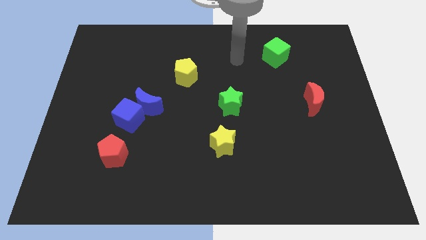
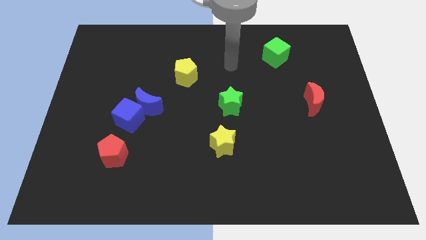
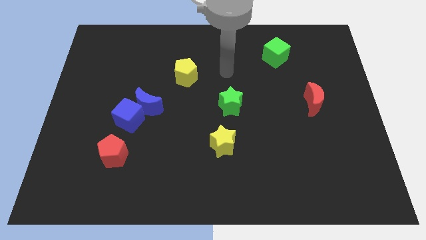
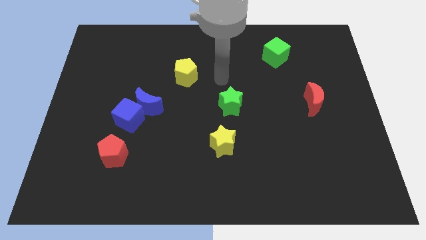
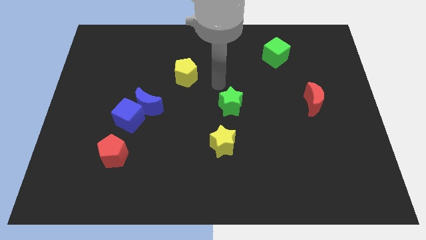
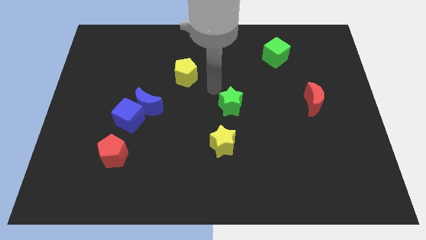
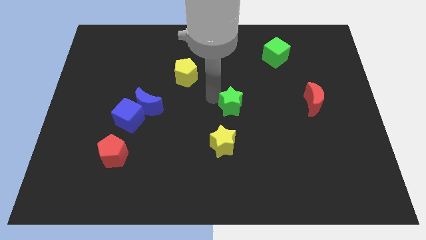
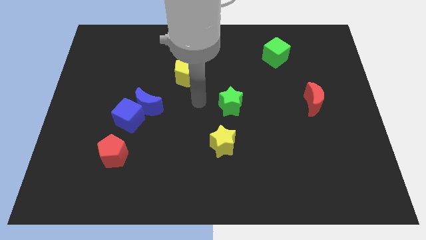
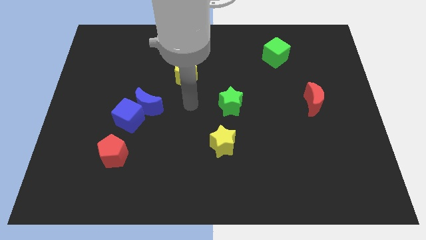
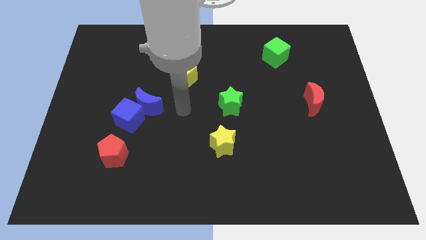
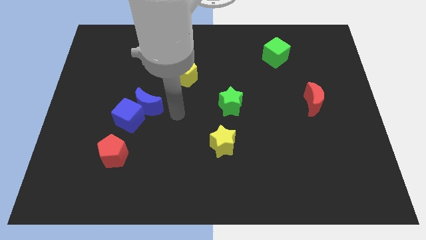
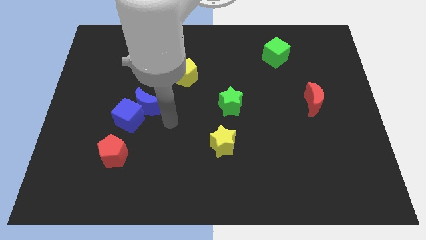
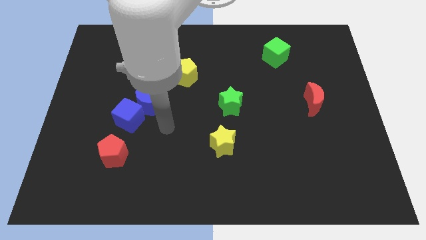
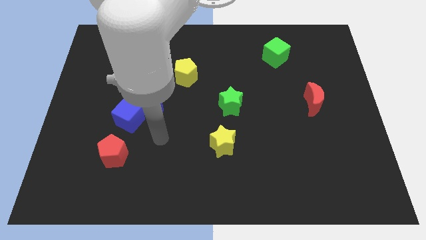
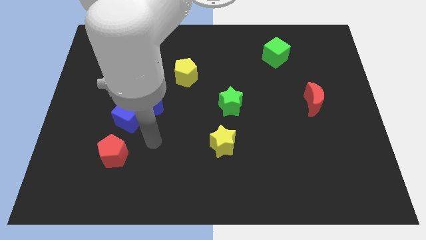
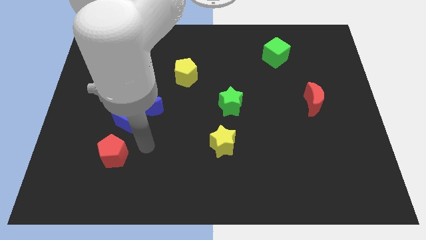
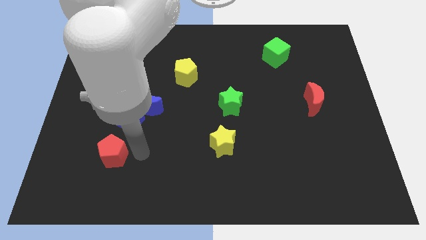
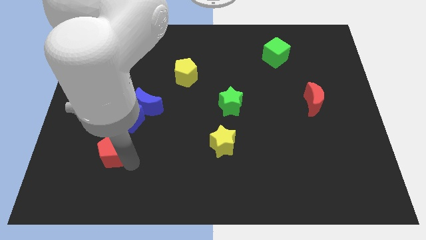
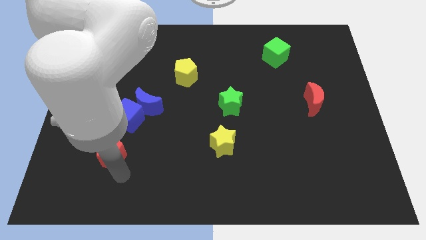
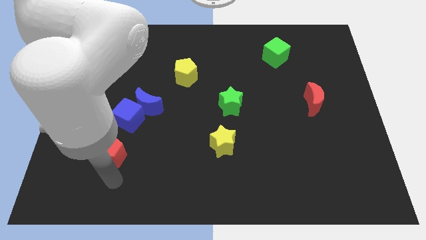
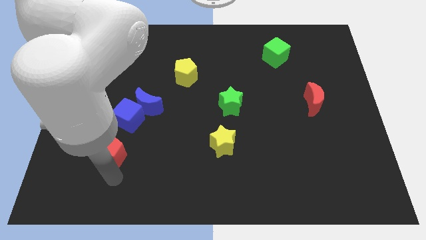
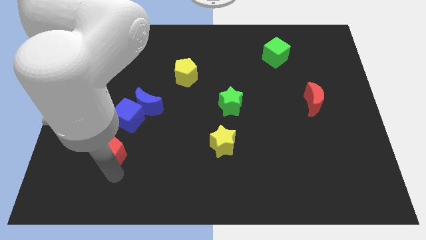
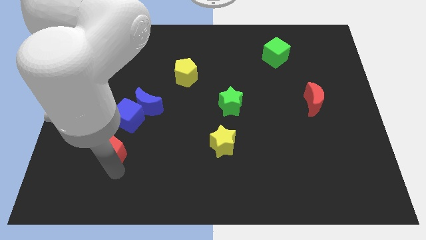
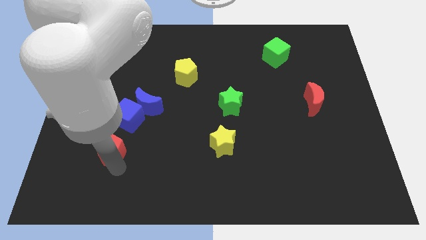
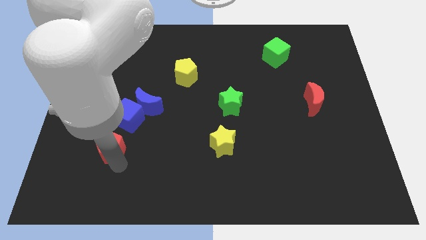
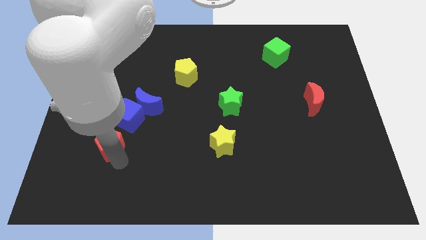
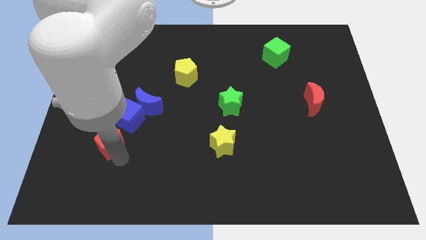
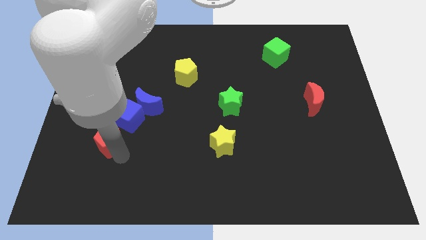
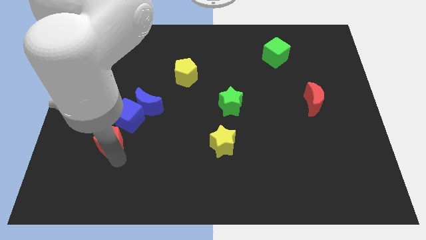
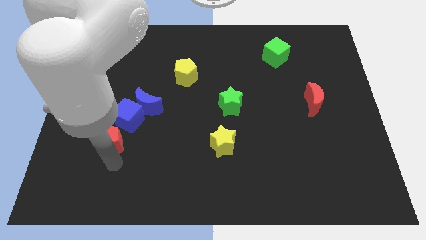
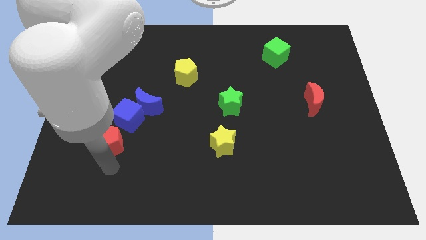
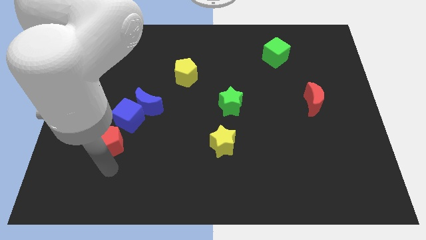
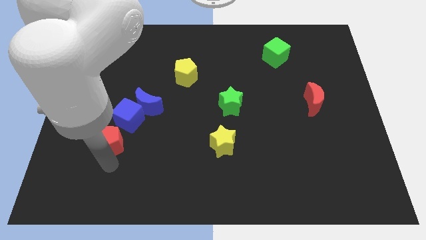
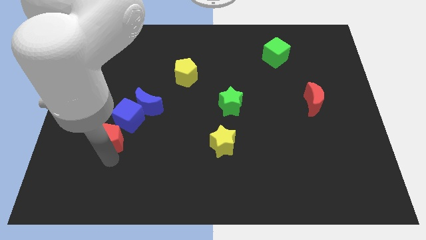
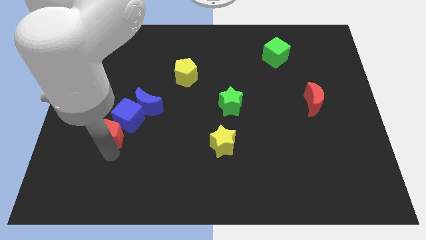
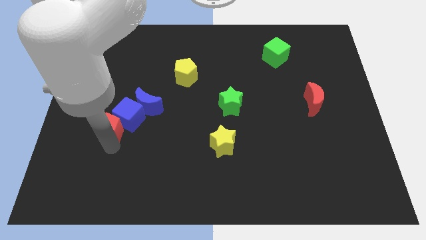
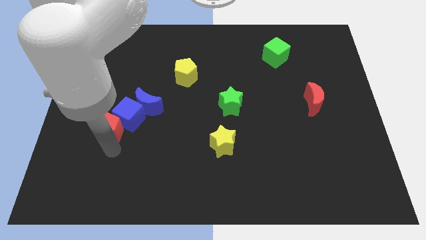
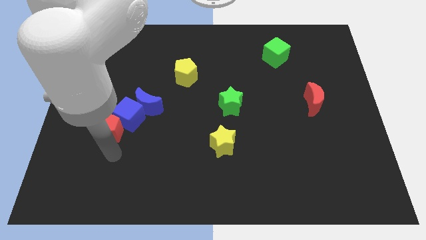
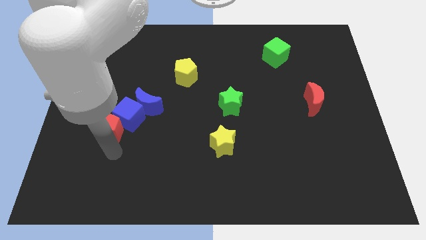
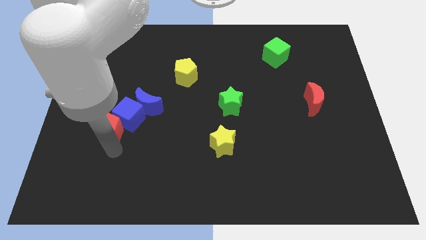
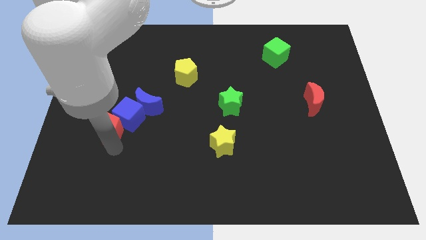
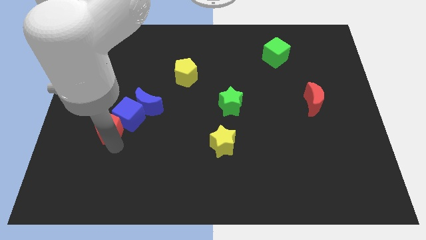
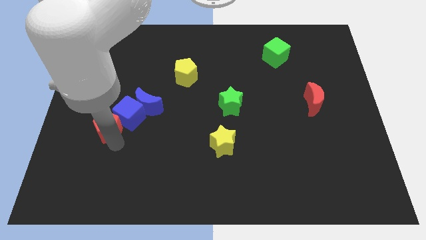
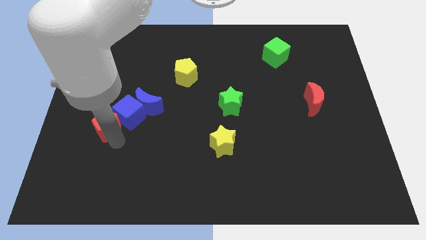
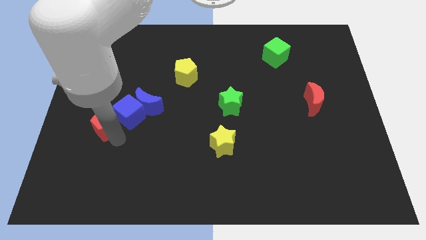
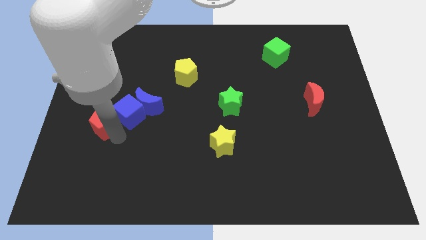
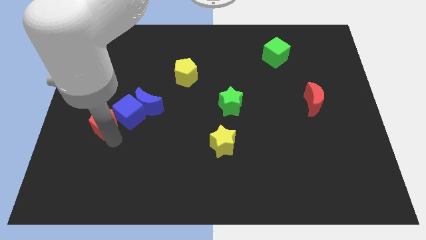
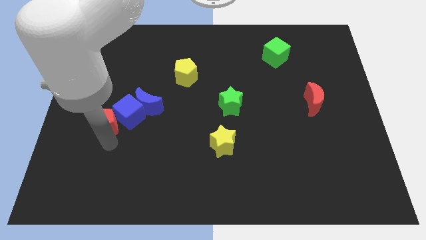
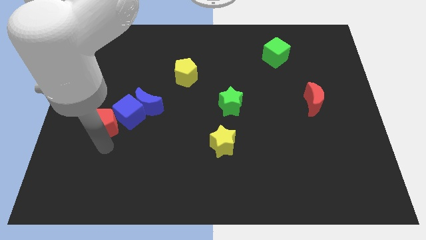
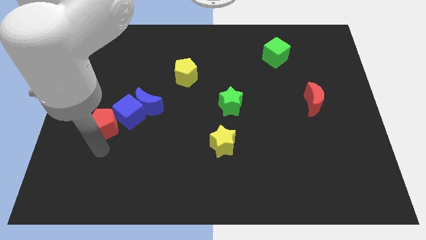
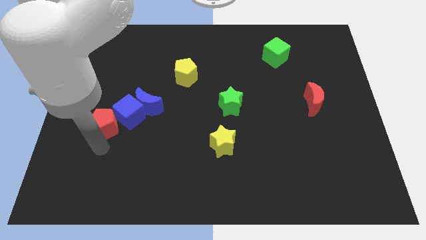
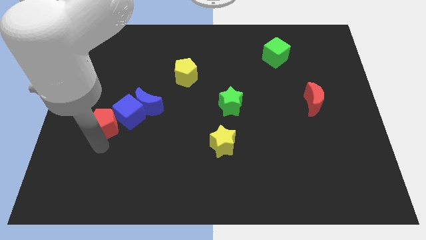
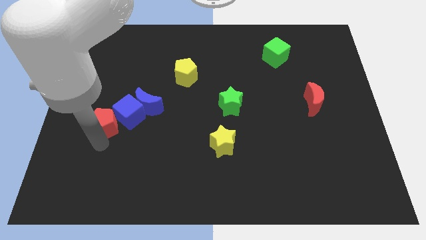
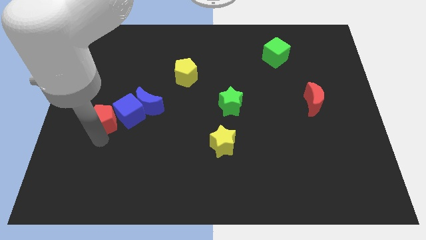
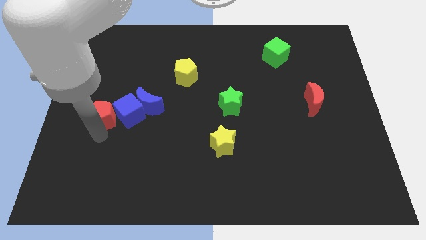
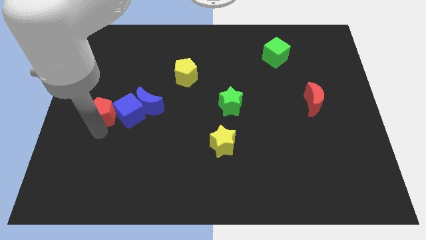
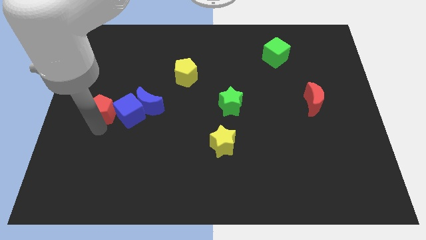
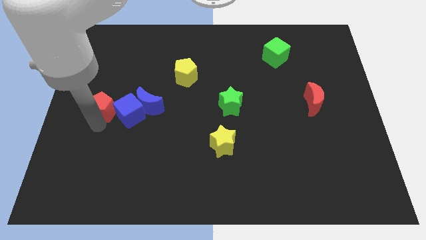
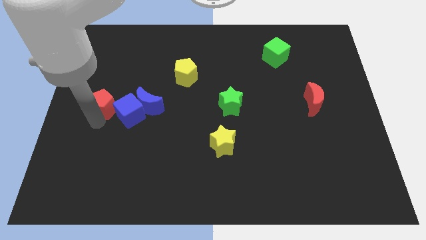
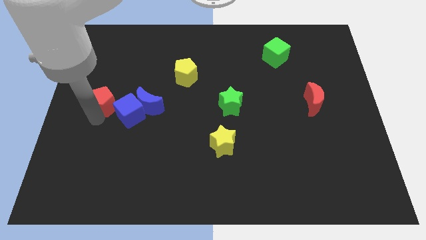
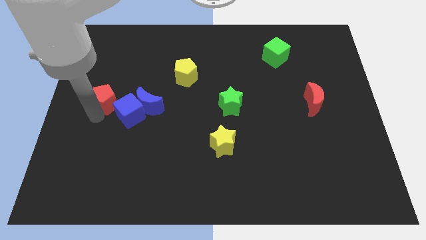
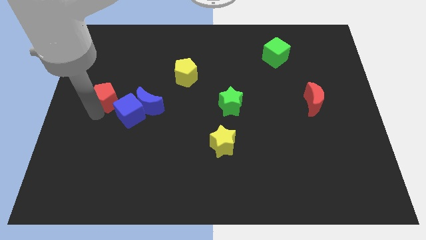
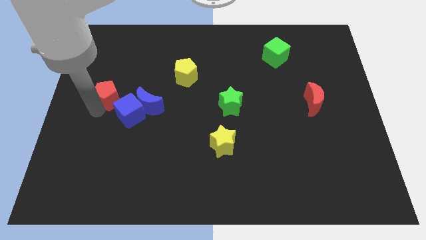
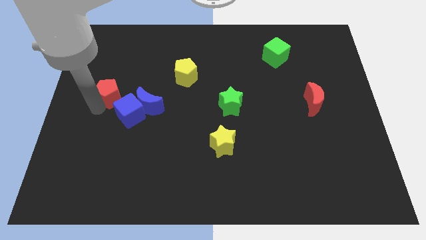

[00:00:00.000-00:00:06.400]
put the red pentagon to the top left side of the blue moon

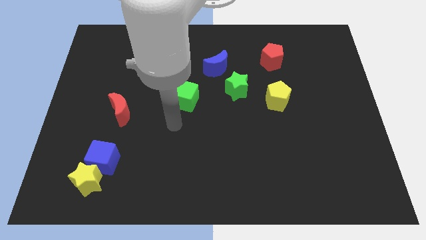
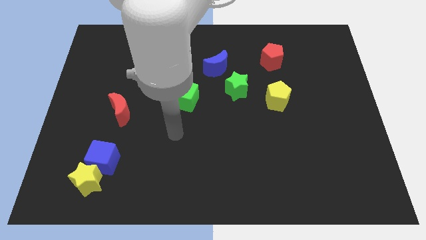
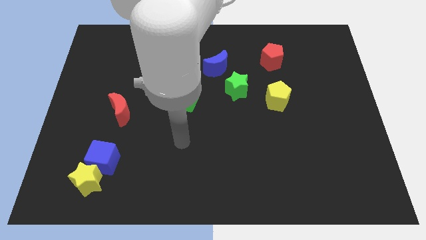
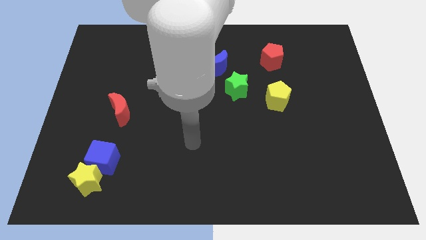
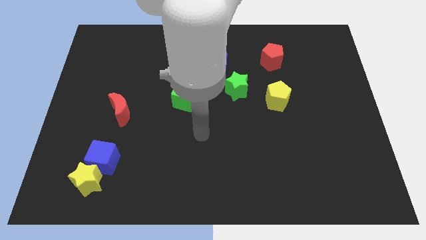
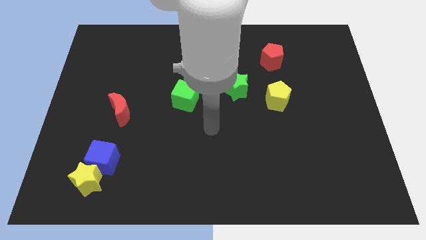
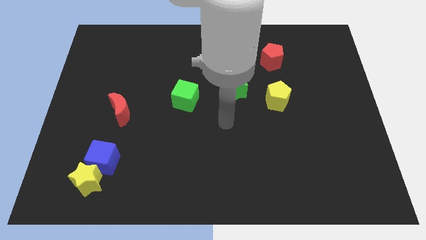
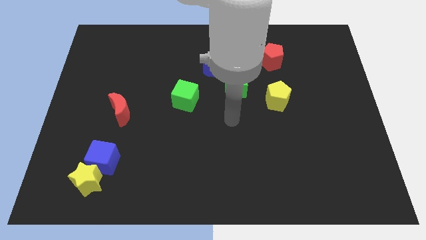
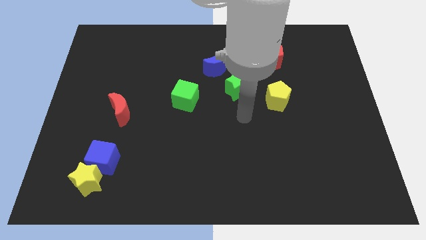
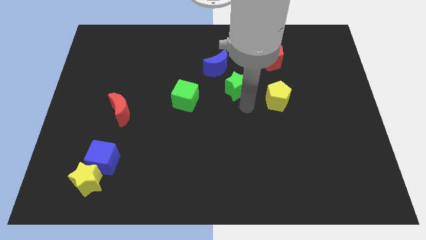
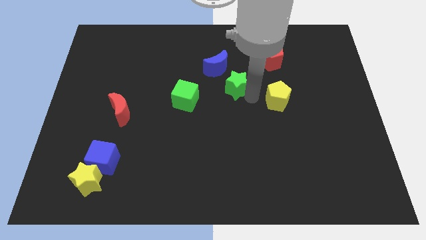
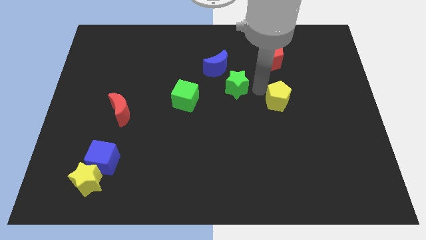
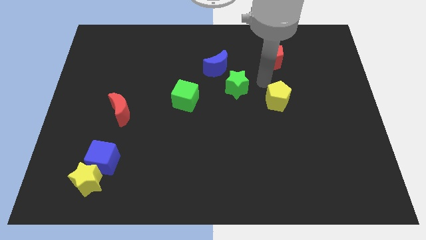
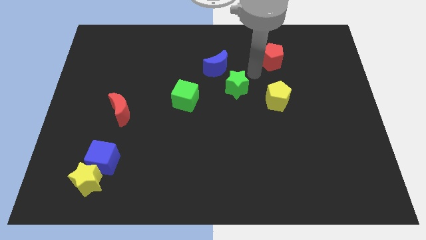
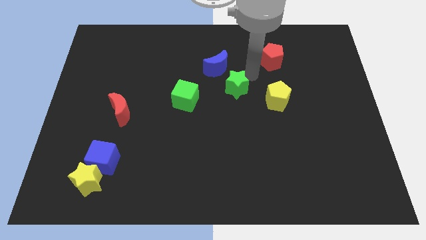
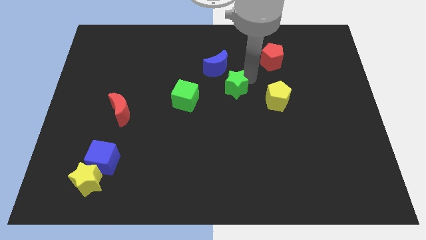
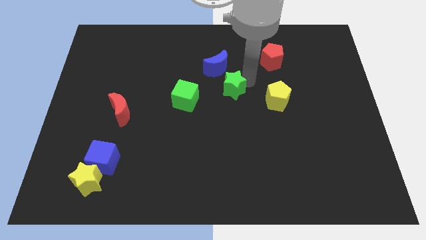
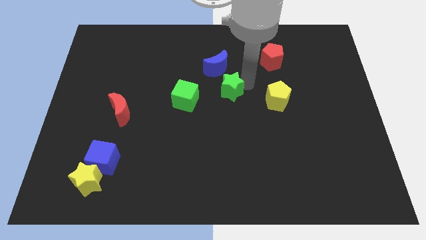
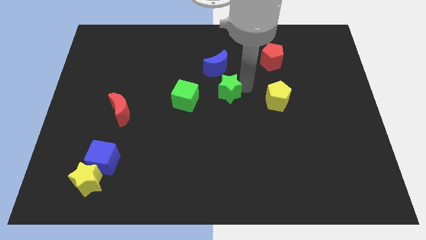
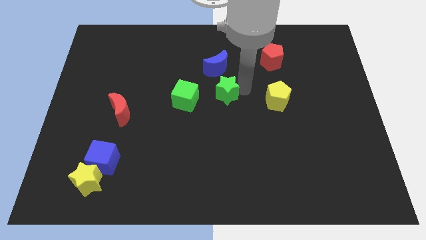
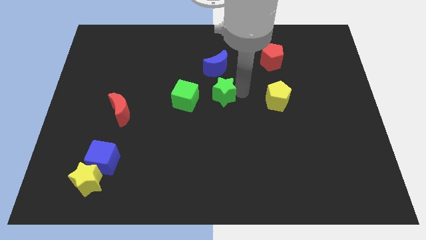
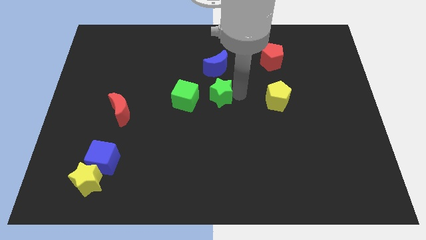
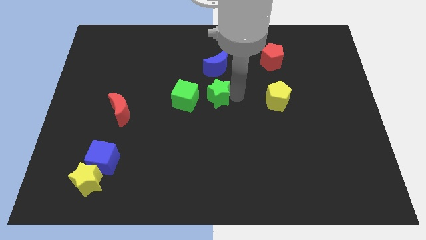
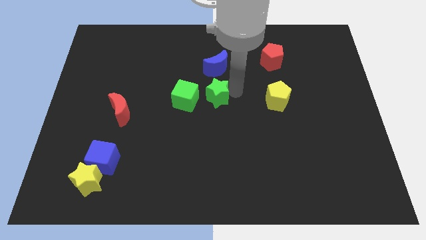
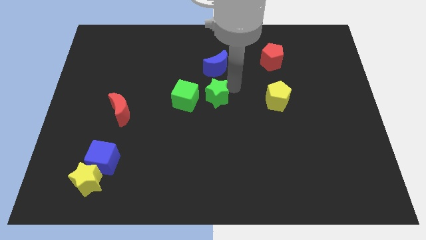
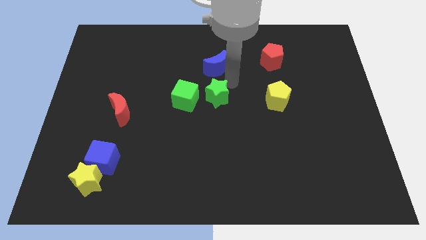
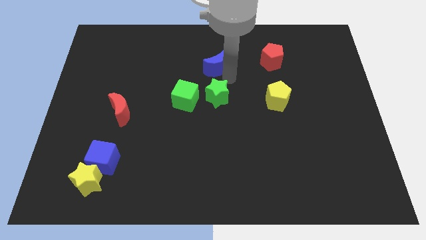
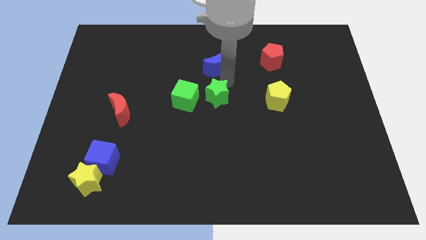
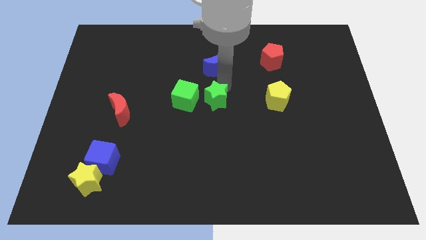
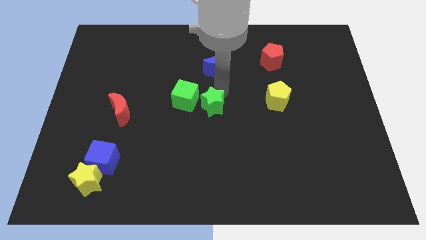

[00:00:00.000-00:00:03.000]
move the green star to the bottom right side of the green cube
